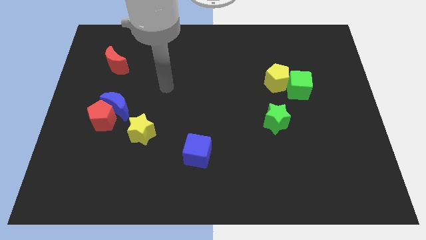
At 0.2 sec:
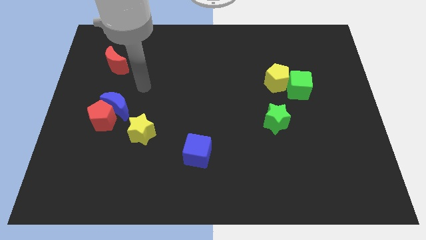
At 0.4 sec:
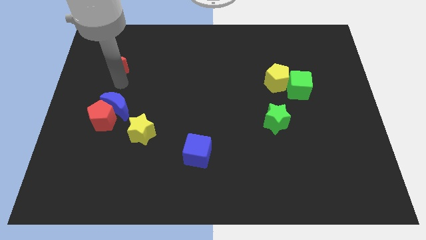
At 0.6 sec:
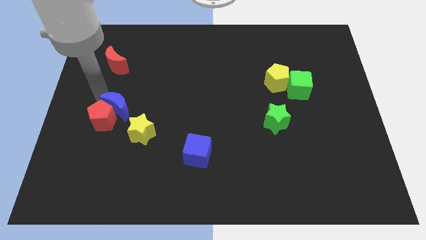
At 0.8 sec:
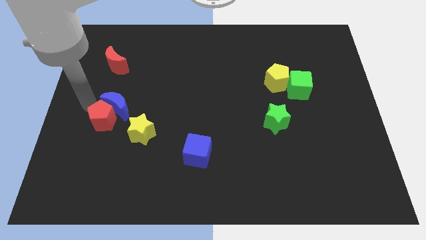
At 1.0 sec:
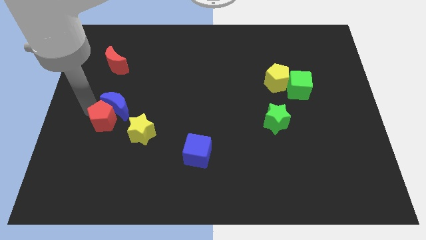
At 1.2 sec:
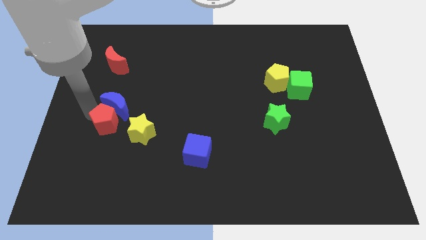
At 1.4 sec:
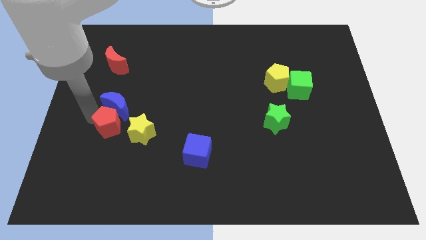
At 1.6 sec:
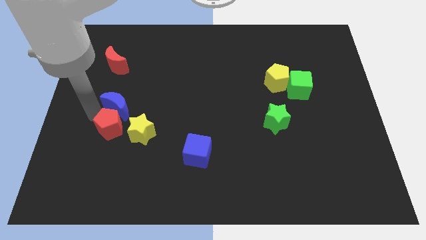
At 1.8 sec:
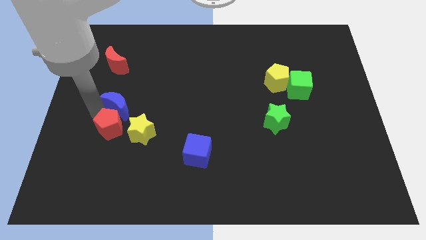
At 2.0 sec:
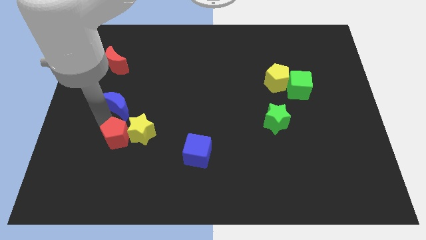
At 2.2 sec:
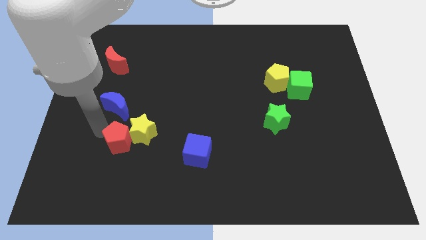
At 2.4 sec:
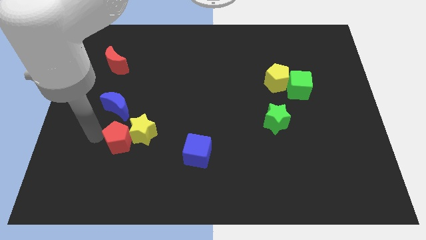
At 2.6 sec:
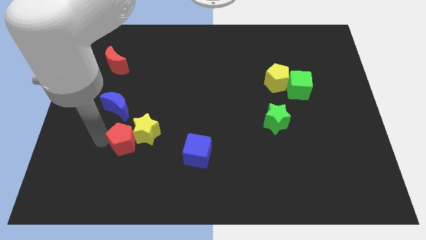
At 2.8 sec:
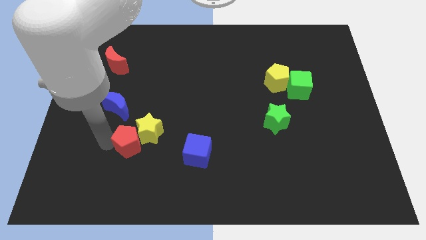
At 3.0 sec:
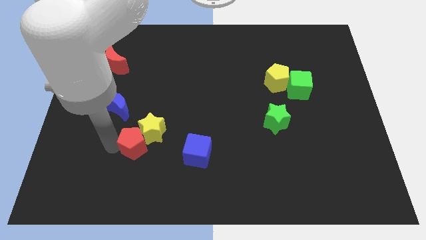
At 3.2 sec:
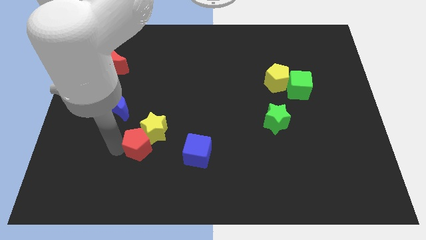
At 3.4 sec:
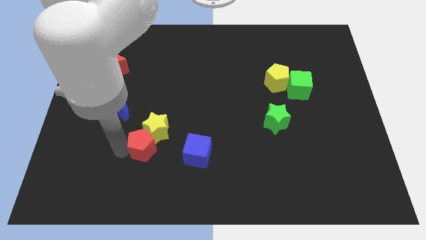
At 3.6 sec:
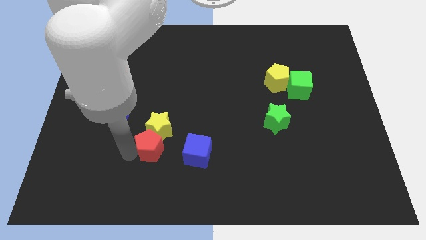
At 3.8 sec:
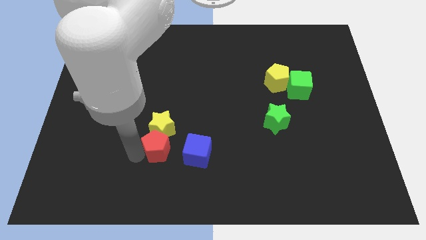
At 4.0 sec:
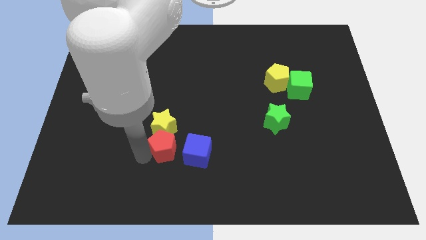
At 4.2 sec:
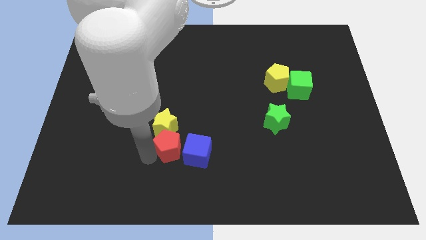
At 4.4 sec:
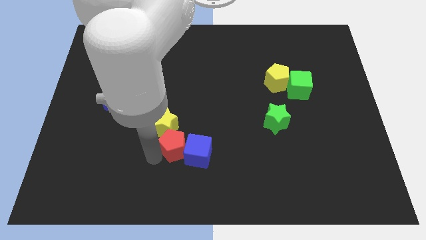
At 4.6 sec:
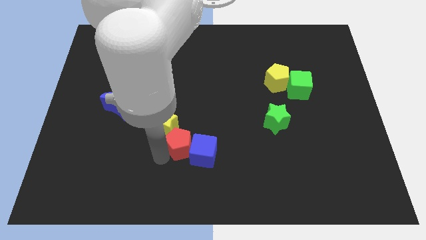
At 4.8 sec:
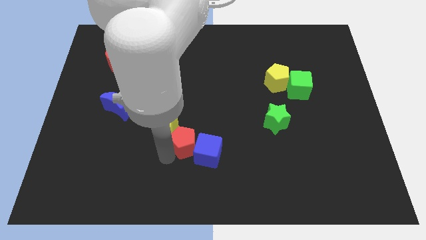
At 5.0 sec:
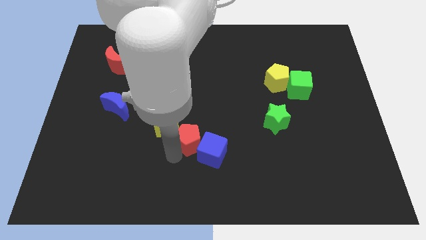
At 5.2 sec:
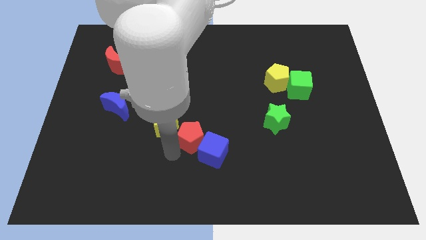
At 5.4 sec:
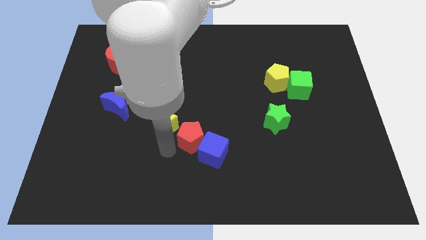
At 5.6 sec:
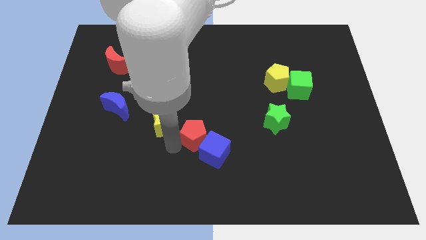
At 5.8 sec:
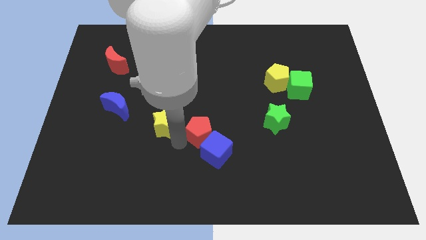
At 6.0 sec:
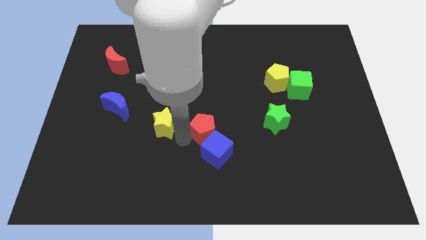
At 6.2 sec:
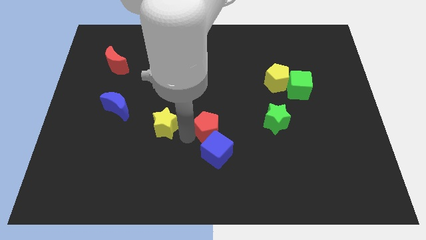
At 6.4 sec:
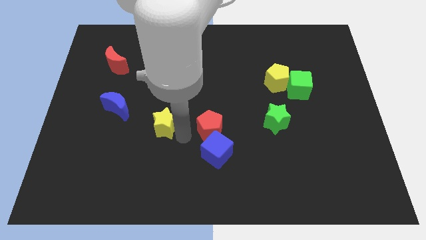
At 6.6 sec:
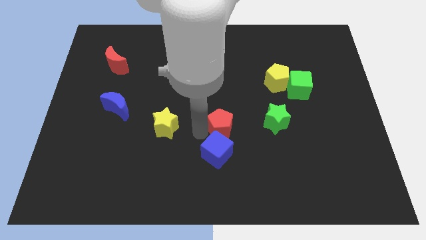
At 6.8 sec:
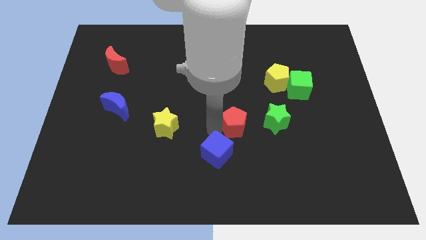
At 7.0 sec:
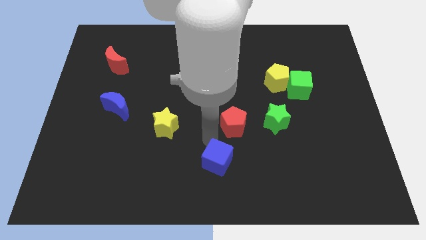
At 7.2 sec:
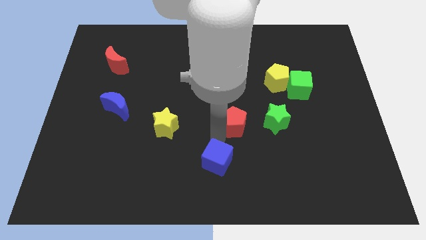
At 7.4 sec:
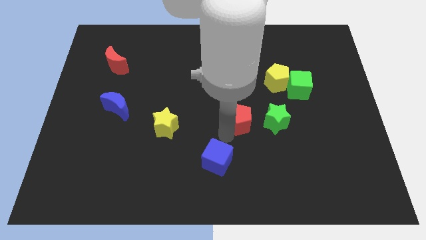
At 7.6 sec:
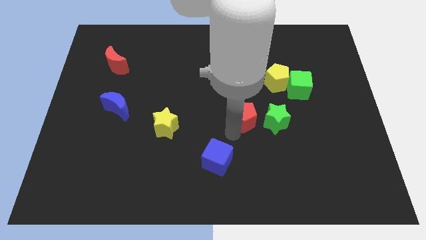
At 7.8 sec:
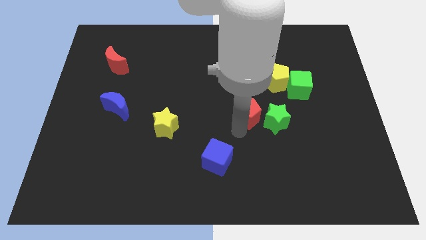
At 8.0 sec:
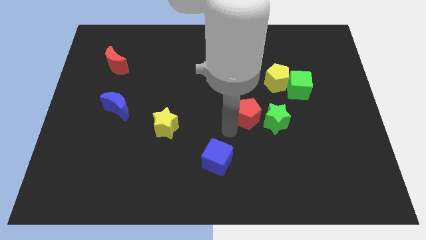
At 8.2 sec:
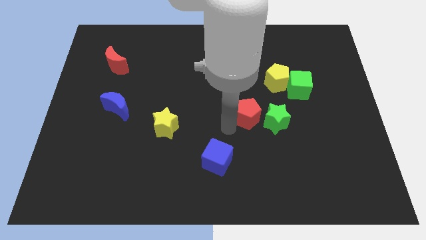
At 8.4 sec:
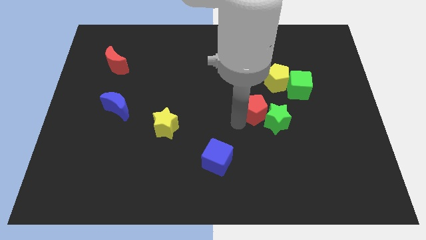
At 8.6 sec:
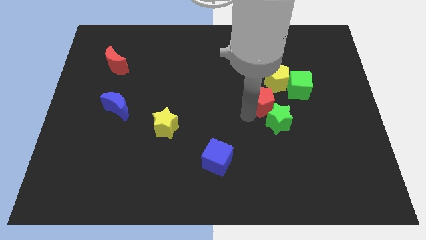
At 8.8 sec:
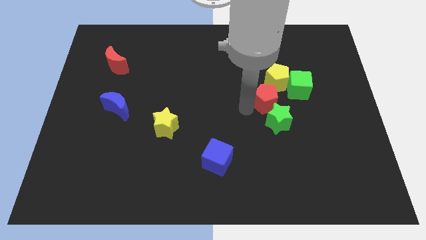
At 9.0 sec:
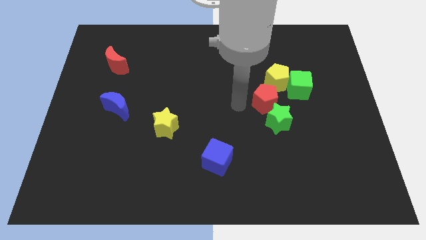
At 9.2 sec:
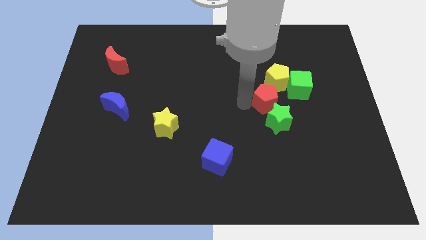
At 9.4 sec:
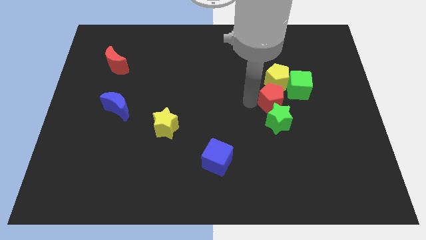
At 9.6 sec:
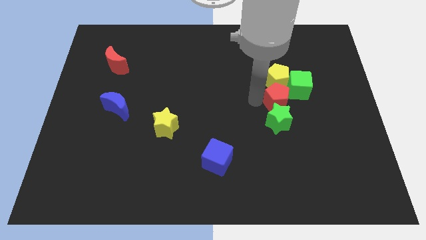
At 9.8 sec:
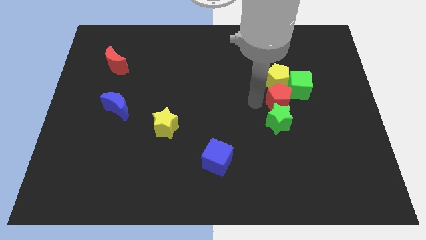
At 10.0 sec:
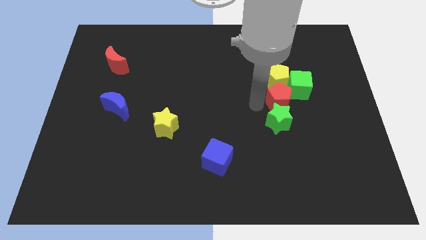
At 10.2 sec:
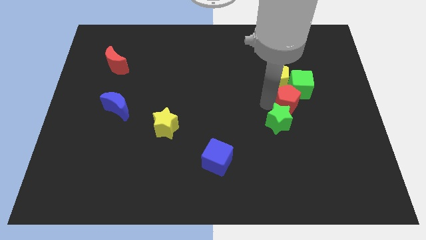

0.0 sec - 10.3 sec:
slide the red pentagon to the green cube

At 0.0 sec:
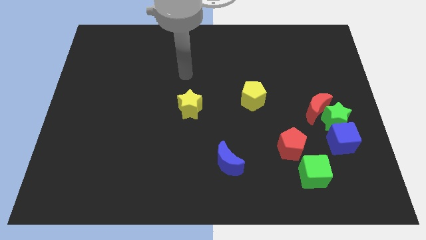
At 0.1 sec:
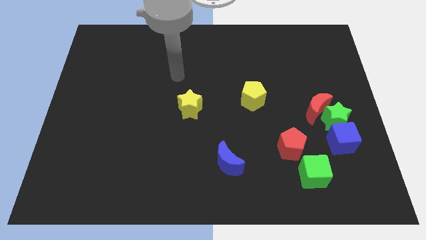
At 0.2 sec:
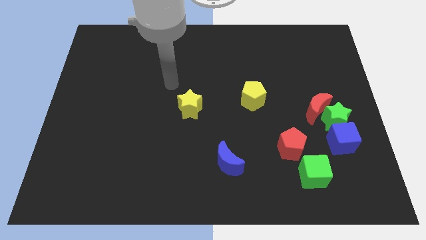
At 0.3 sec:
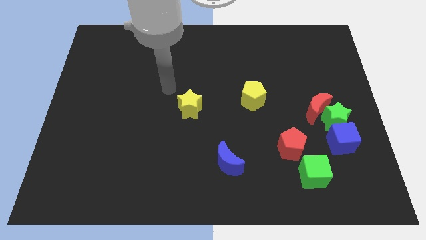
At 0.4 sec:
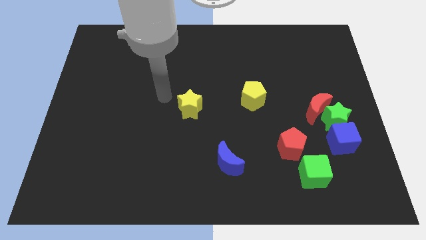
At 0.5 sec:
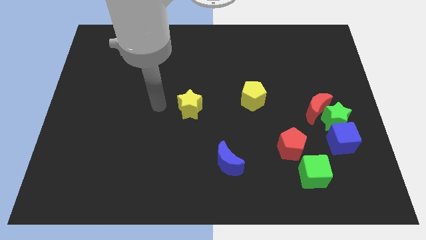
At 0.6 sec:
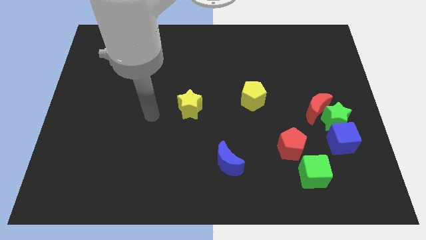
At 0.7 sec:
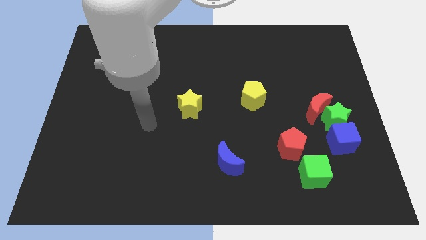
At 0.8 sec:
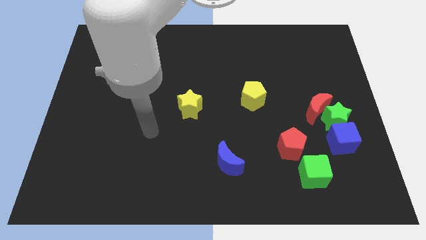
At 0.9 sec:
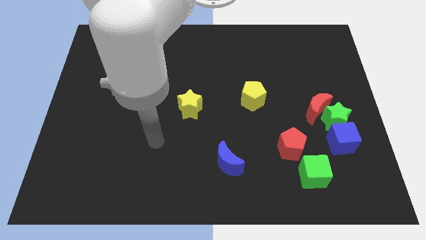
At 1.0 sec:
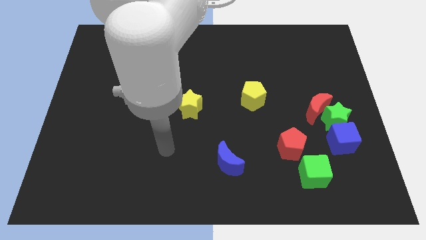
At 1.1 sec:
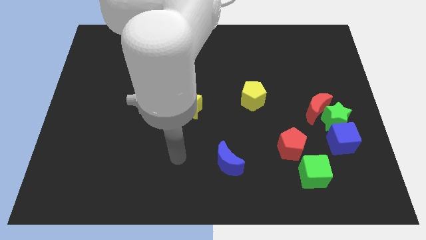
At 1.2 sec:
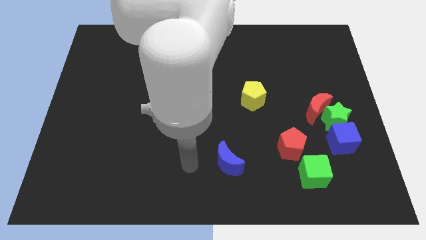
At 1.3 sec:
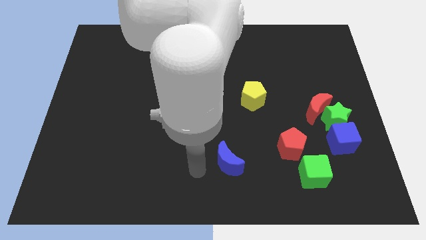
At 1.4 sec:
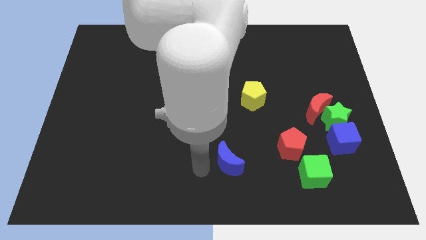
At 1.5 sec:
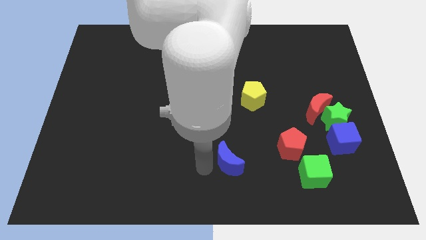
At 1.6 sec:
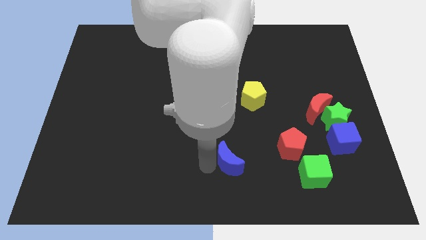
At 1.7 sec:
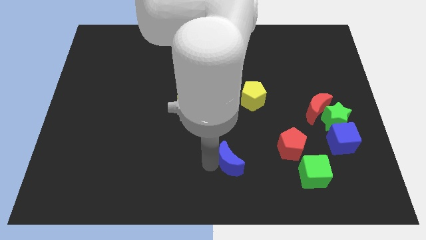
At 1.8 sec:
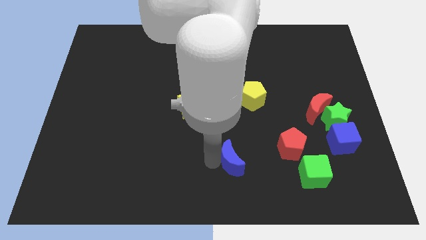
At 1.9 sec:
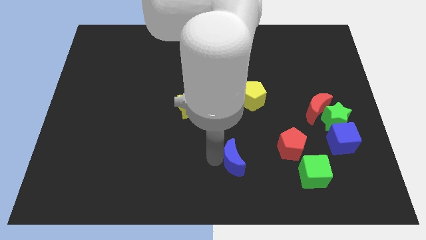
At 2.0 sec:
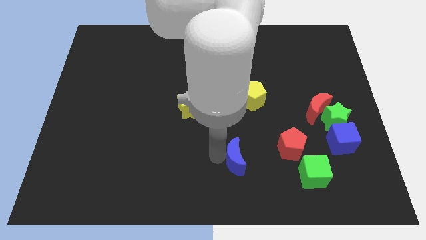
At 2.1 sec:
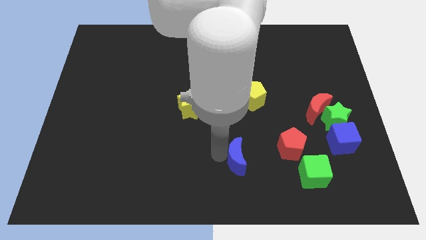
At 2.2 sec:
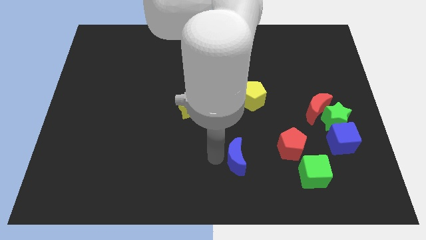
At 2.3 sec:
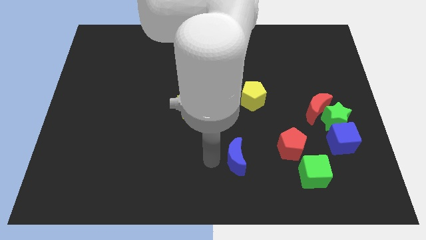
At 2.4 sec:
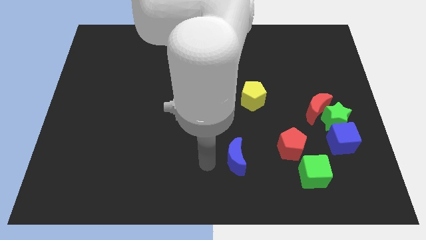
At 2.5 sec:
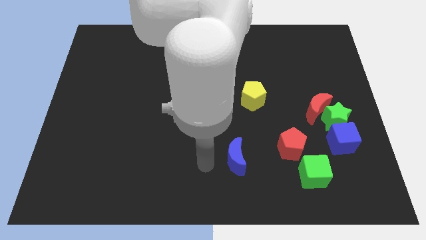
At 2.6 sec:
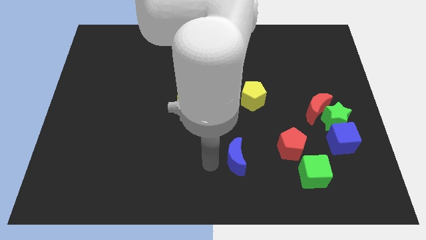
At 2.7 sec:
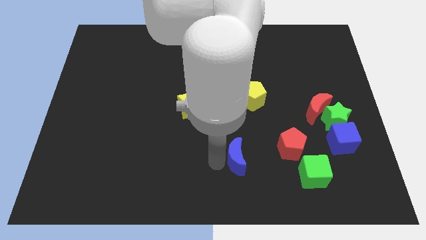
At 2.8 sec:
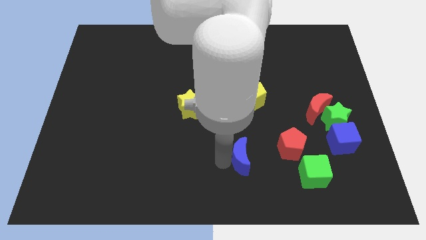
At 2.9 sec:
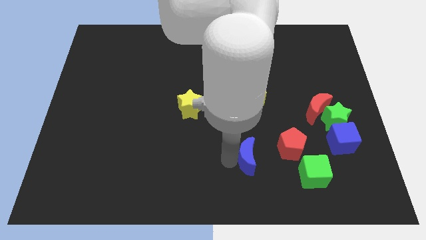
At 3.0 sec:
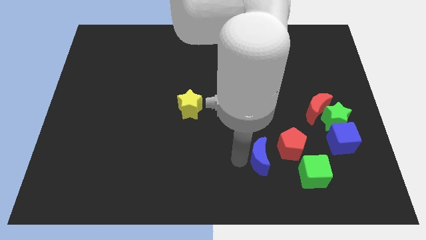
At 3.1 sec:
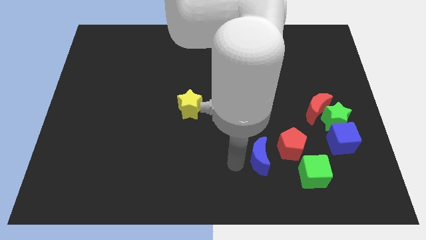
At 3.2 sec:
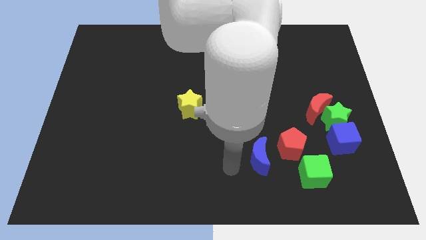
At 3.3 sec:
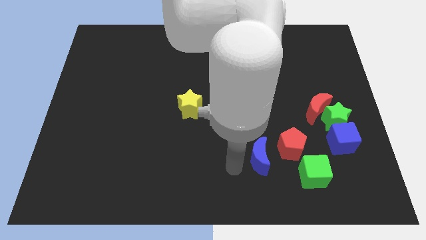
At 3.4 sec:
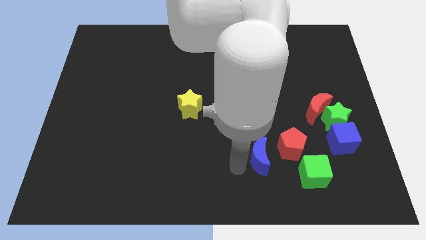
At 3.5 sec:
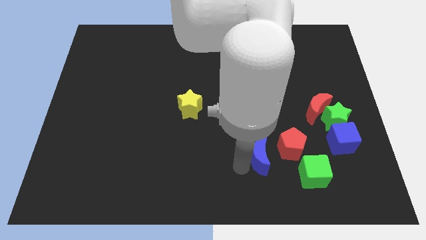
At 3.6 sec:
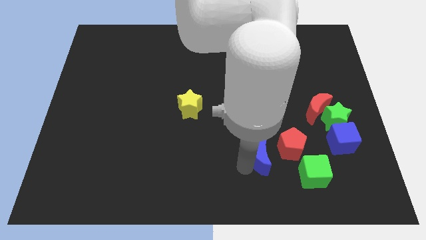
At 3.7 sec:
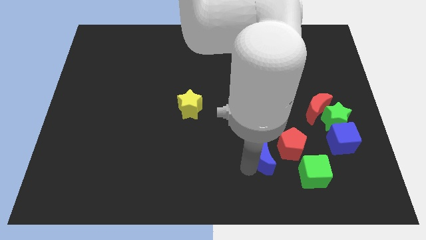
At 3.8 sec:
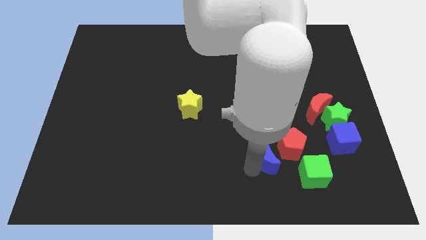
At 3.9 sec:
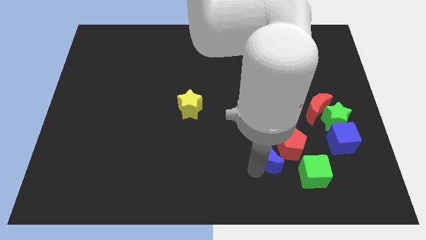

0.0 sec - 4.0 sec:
put the blue moon towards the red pentagon
